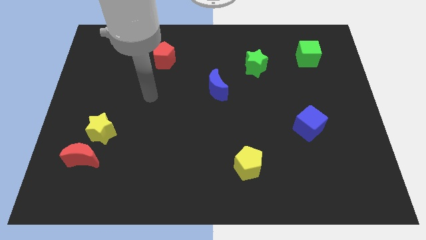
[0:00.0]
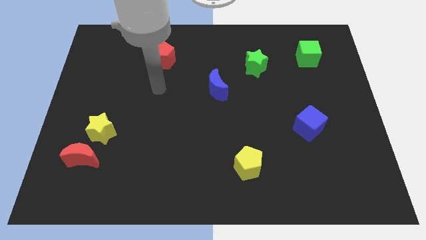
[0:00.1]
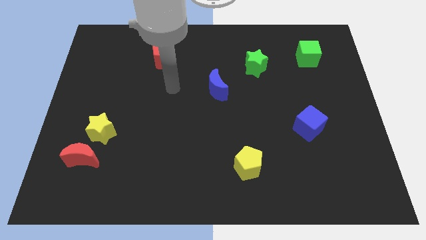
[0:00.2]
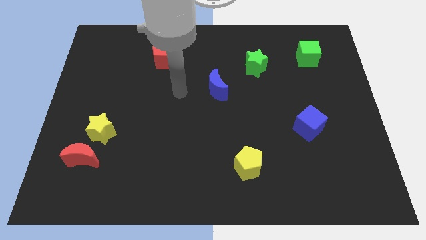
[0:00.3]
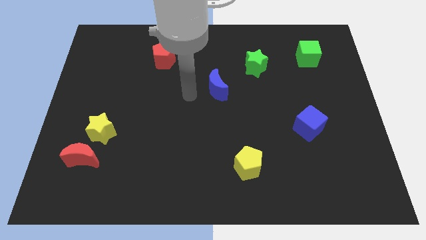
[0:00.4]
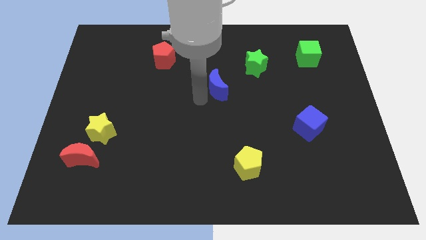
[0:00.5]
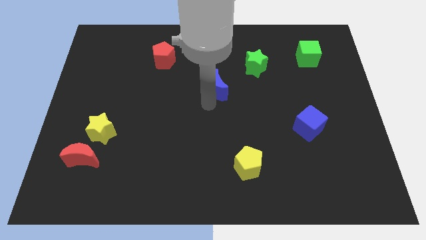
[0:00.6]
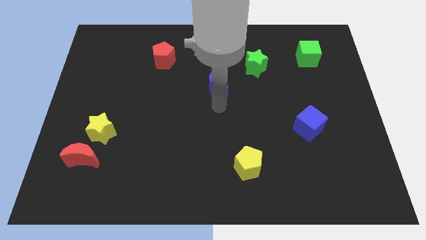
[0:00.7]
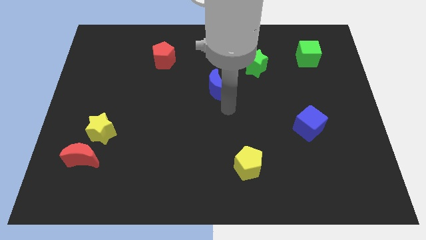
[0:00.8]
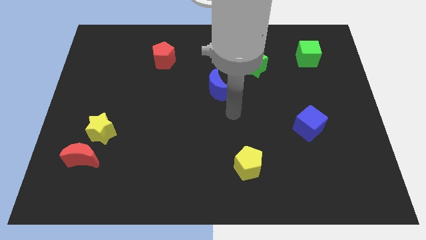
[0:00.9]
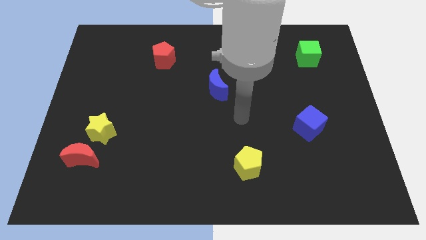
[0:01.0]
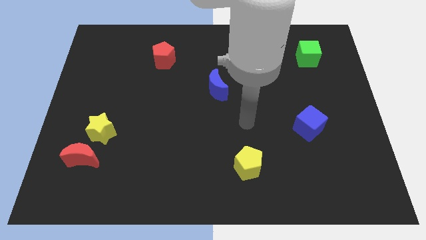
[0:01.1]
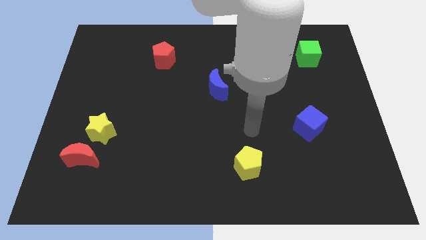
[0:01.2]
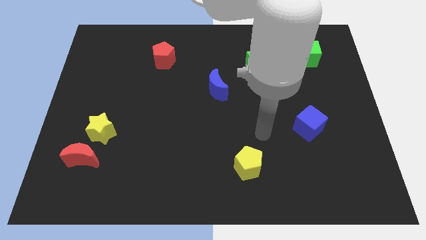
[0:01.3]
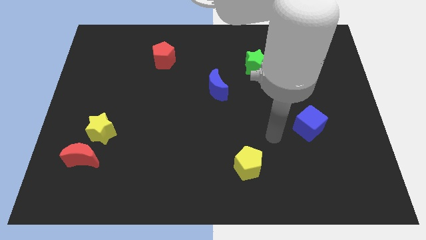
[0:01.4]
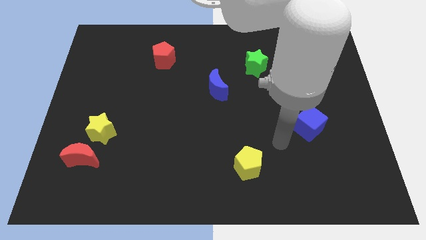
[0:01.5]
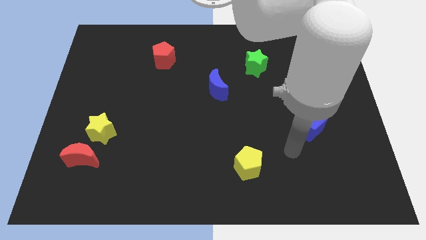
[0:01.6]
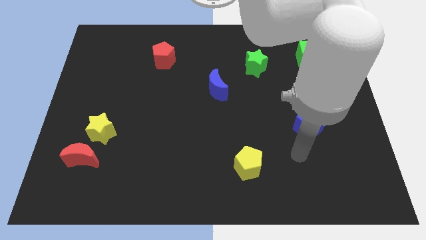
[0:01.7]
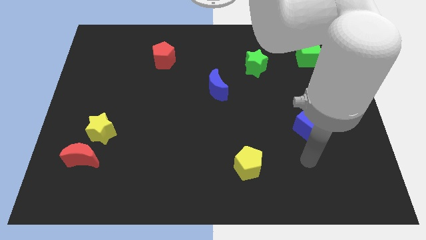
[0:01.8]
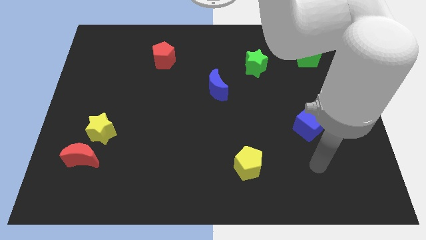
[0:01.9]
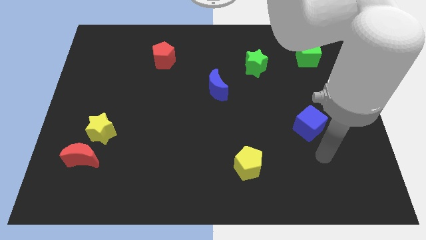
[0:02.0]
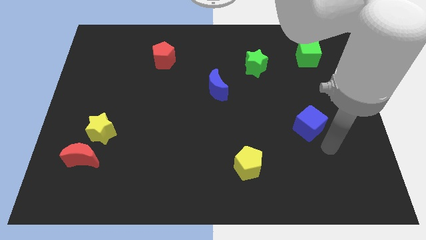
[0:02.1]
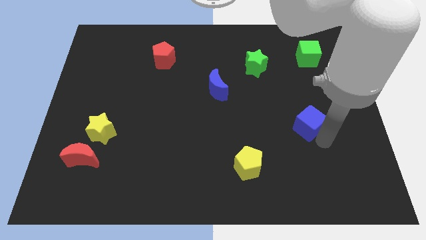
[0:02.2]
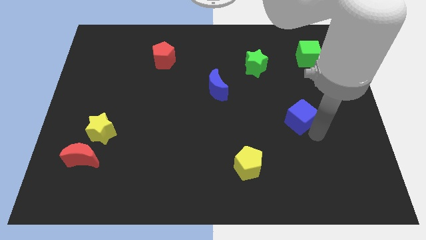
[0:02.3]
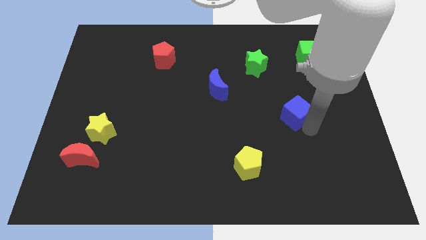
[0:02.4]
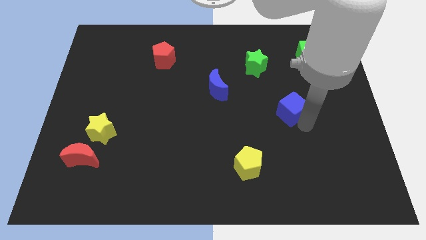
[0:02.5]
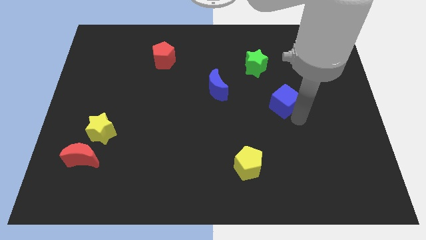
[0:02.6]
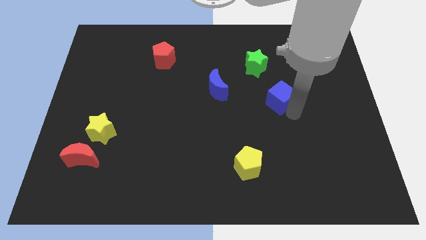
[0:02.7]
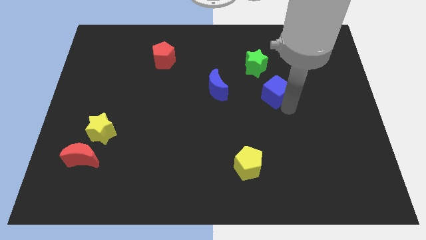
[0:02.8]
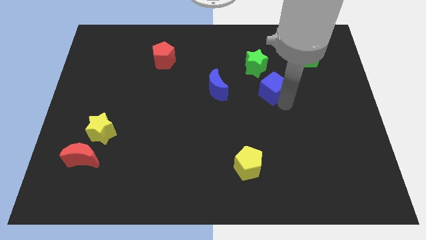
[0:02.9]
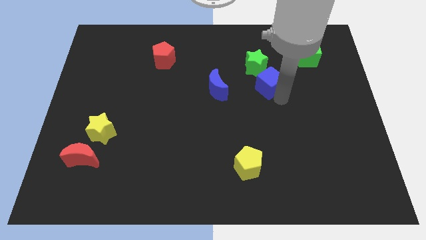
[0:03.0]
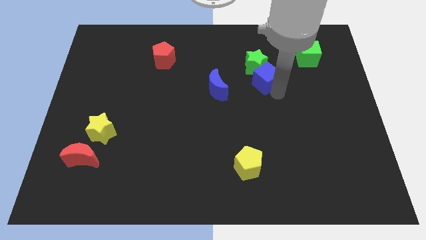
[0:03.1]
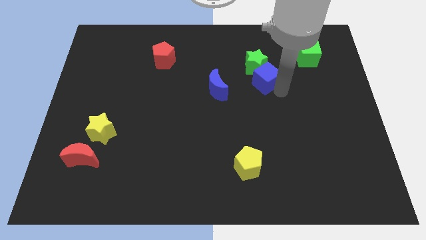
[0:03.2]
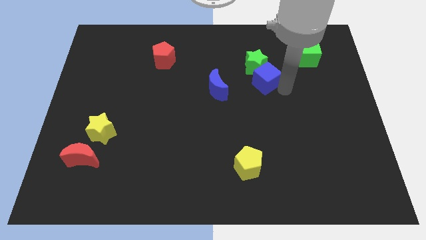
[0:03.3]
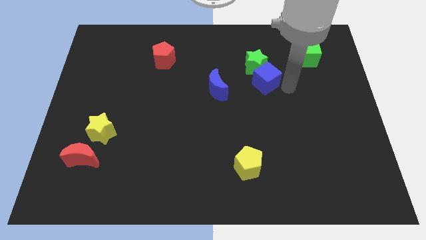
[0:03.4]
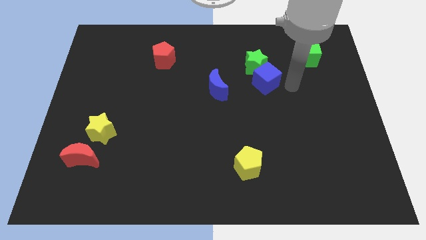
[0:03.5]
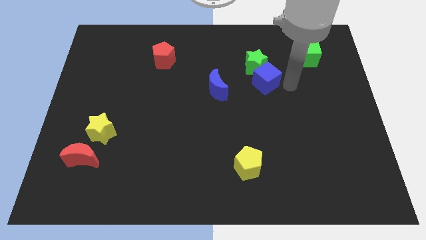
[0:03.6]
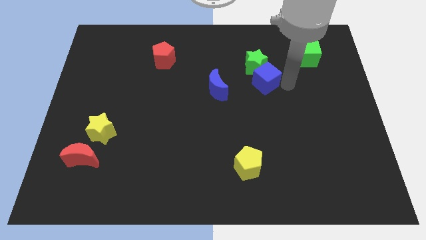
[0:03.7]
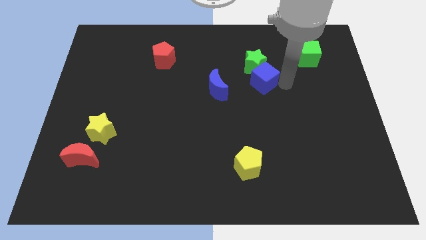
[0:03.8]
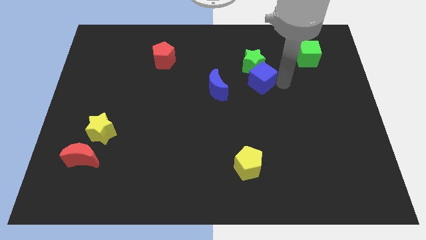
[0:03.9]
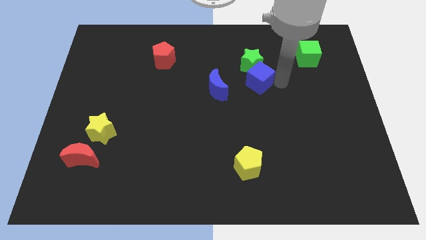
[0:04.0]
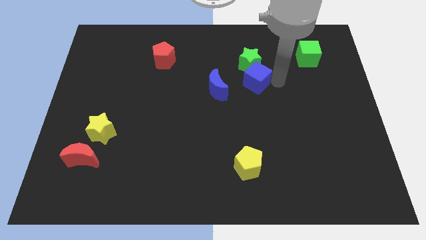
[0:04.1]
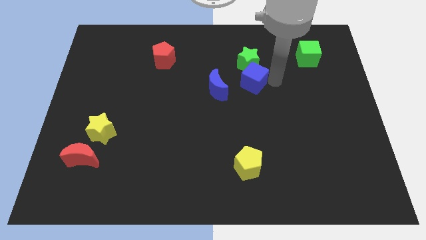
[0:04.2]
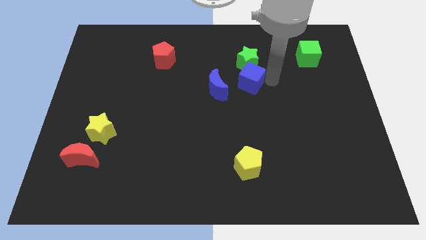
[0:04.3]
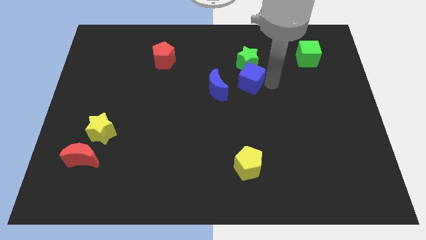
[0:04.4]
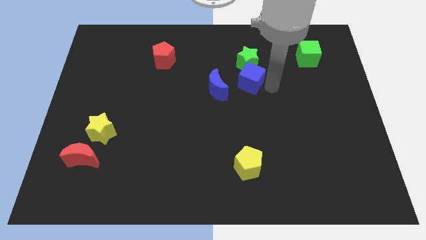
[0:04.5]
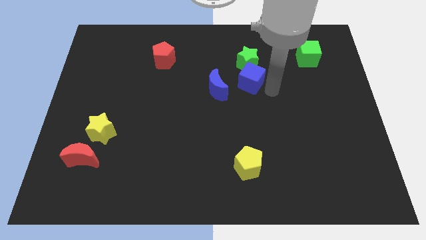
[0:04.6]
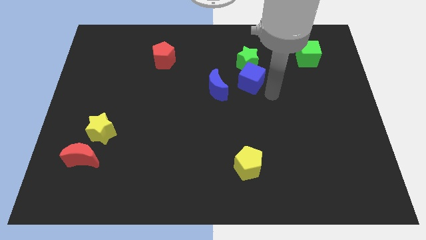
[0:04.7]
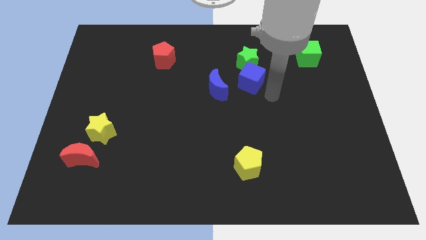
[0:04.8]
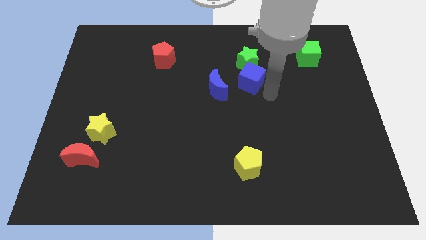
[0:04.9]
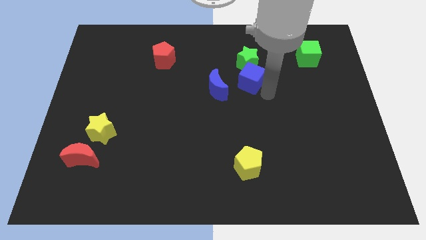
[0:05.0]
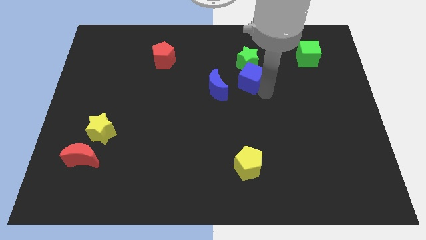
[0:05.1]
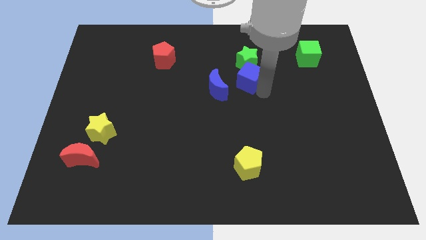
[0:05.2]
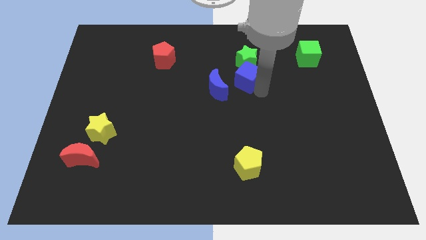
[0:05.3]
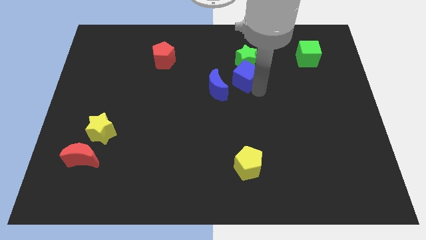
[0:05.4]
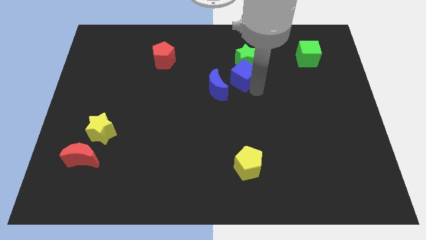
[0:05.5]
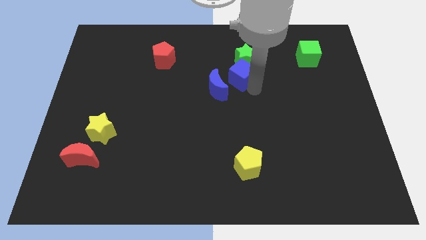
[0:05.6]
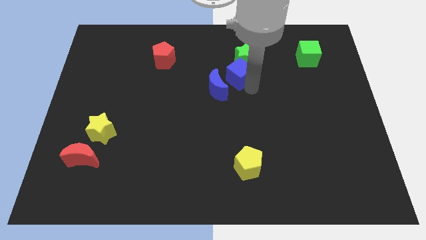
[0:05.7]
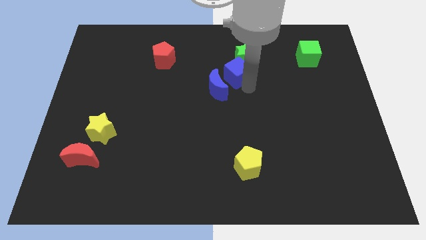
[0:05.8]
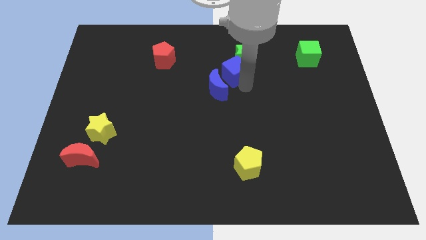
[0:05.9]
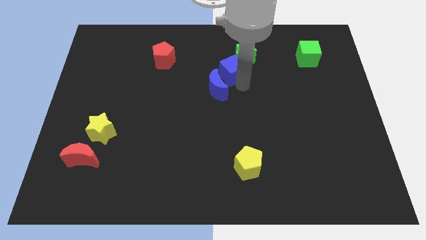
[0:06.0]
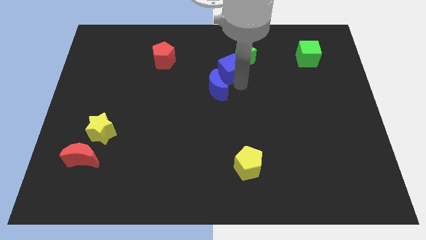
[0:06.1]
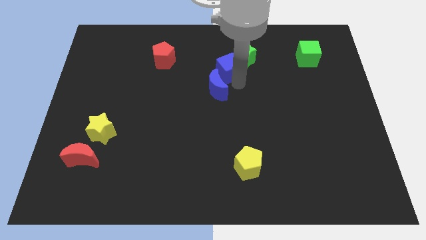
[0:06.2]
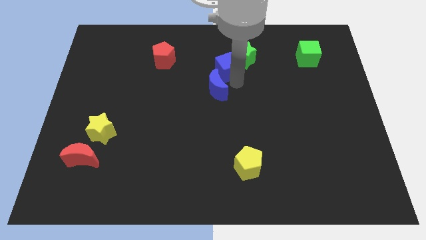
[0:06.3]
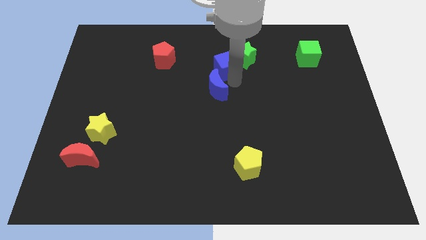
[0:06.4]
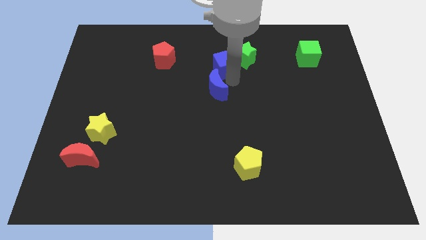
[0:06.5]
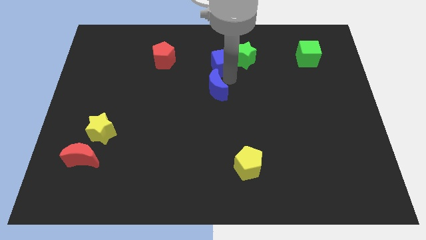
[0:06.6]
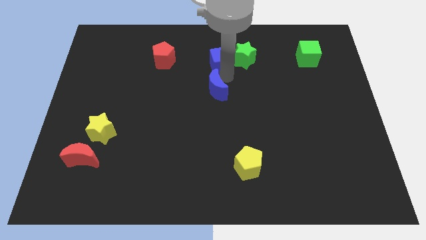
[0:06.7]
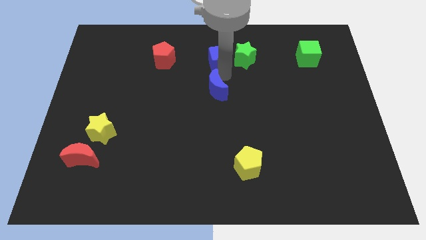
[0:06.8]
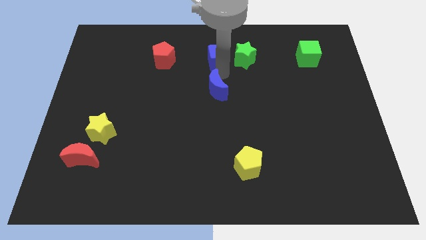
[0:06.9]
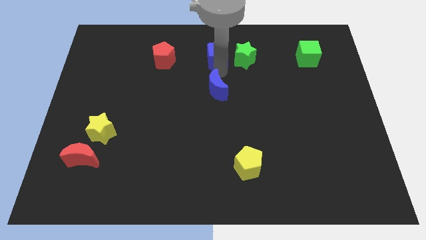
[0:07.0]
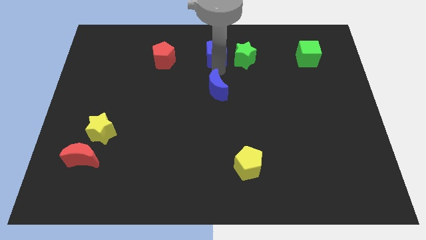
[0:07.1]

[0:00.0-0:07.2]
slide the blue cube to the top side
